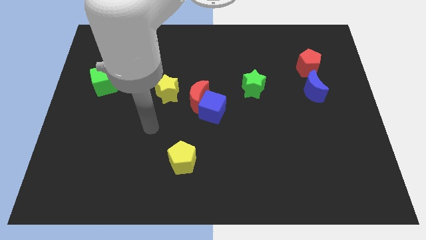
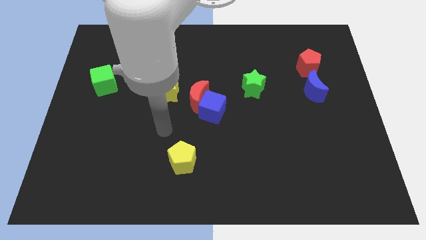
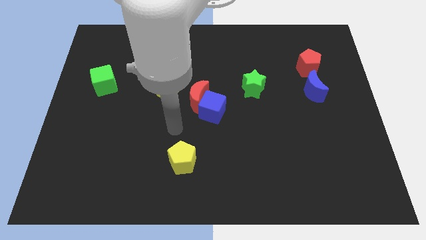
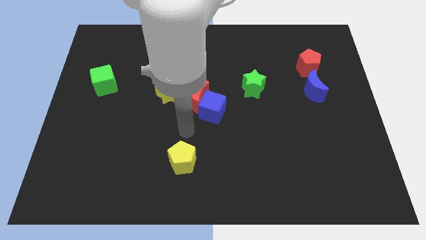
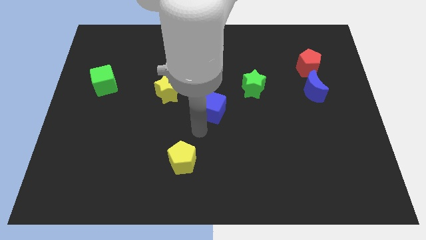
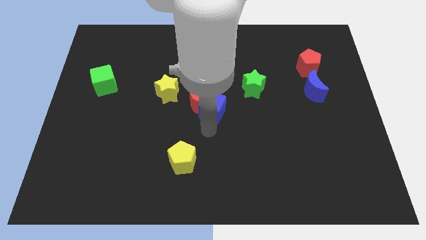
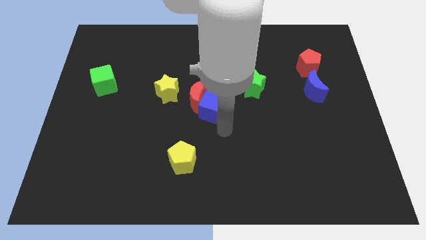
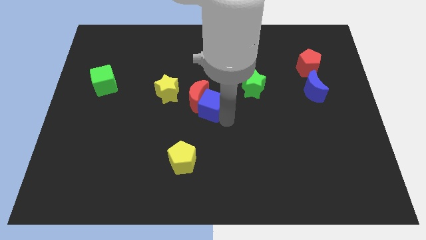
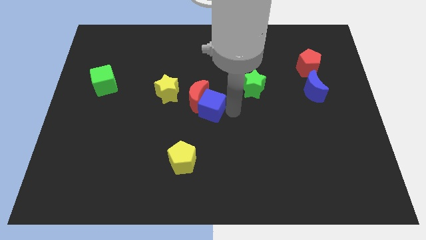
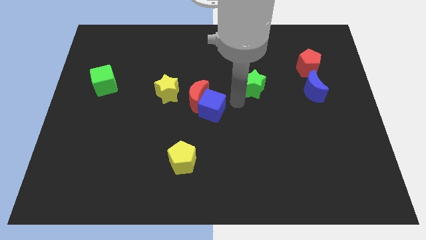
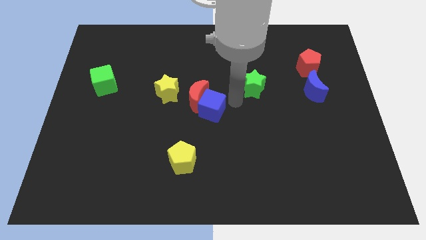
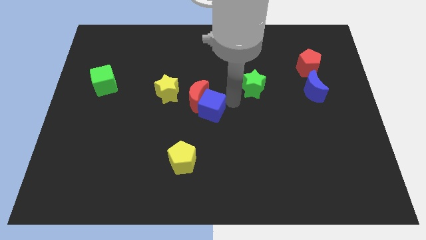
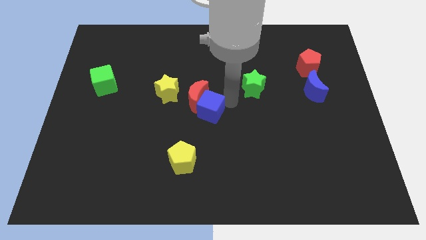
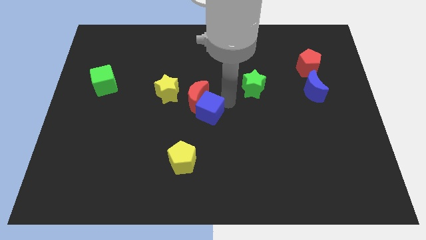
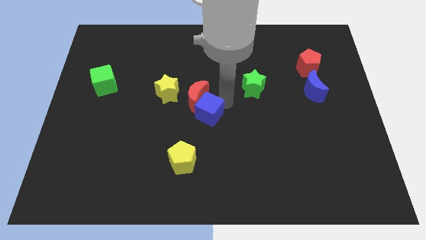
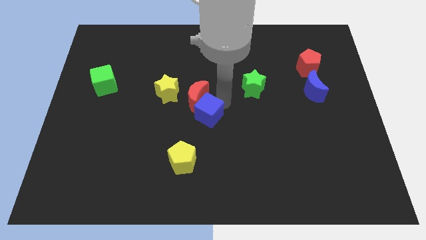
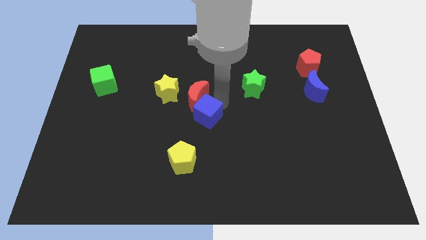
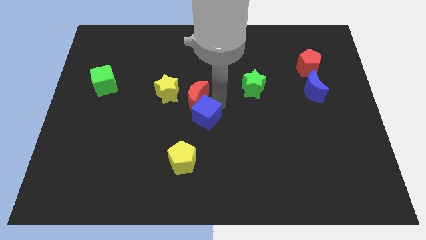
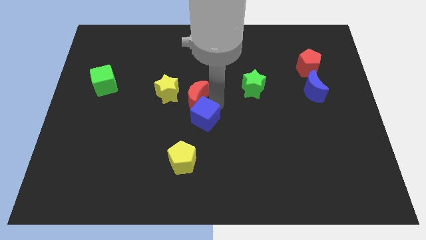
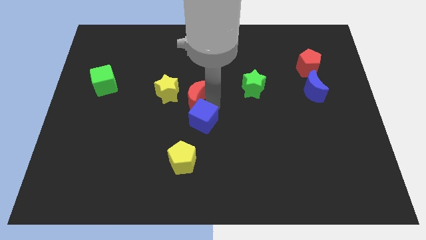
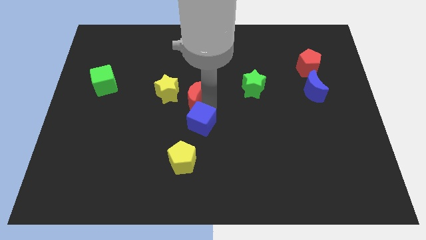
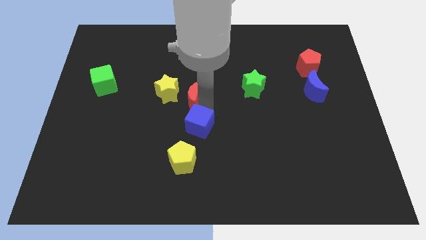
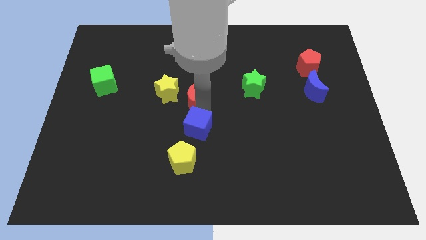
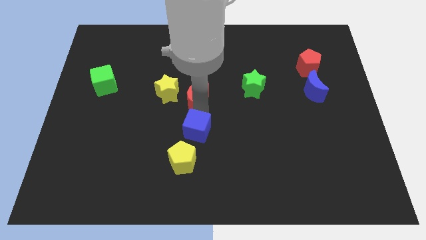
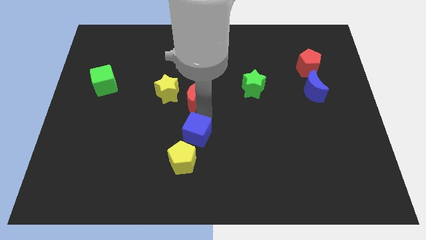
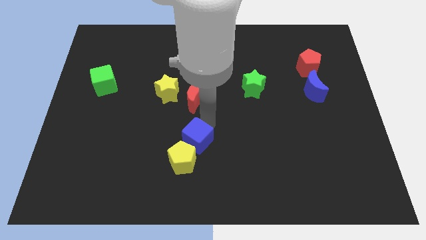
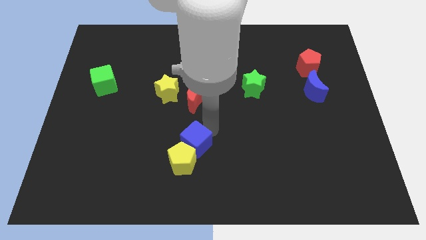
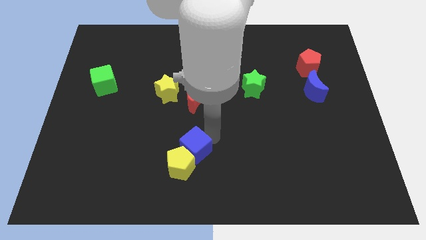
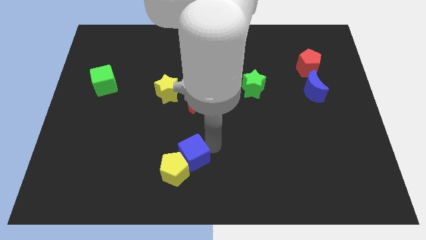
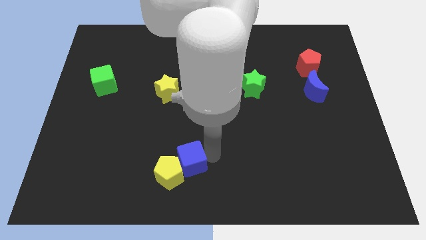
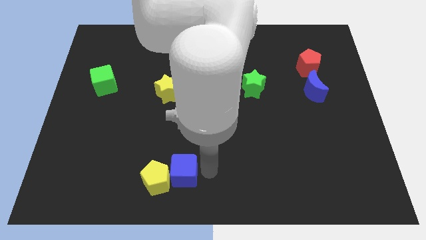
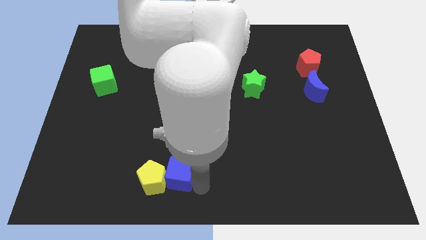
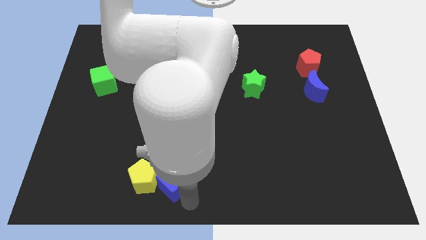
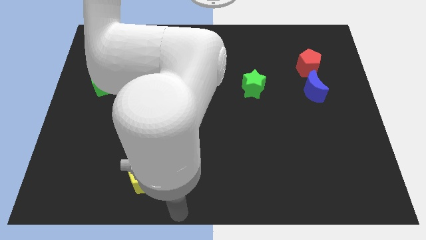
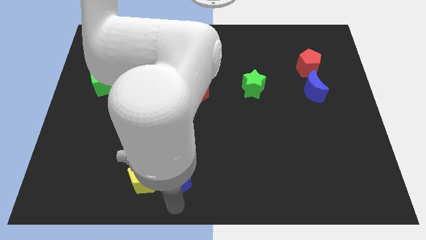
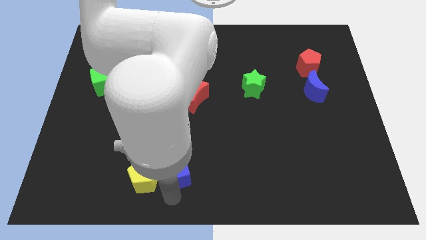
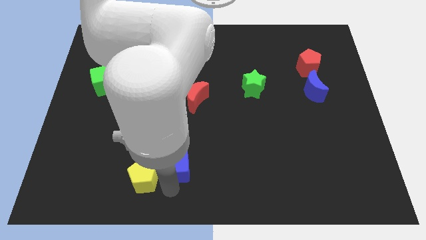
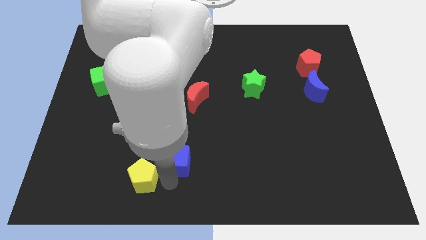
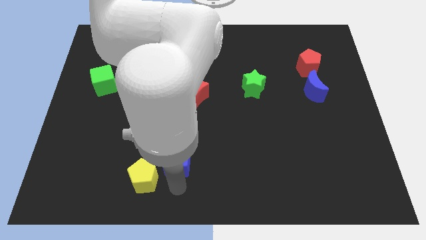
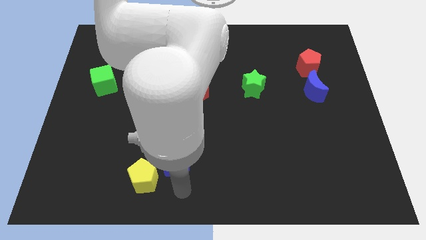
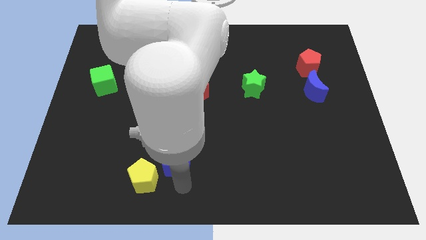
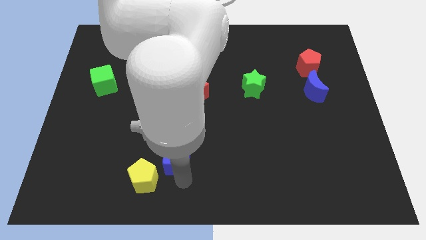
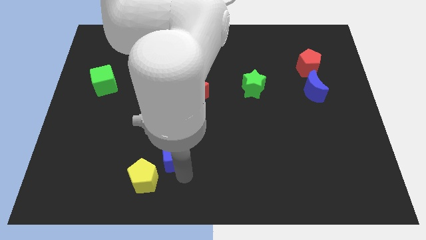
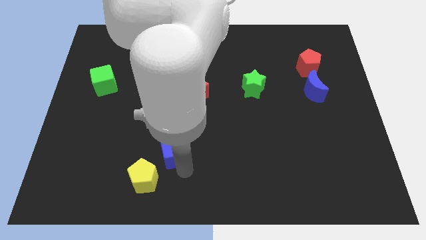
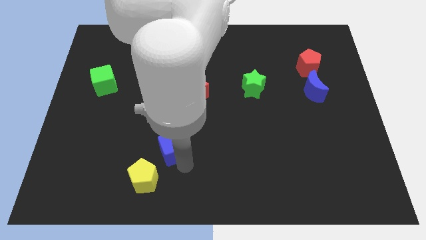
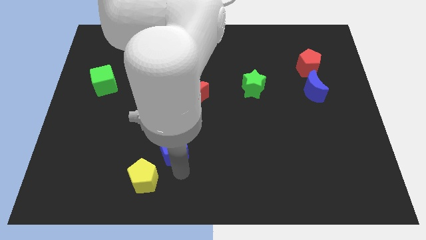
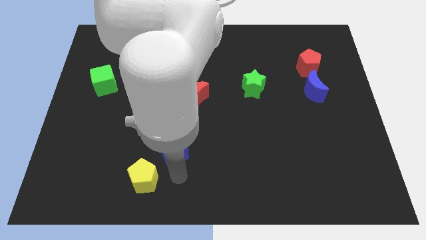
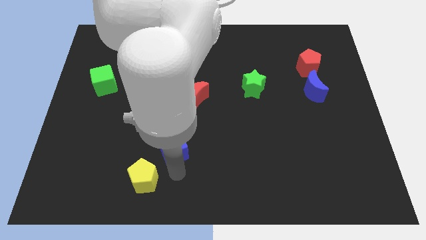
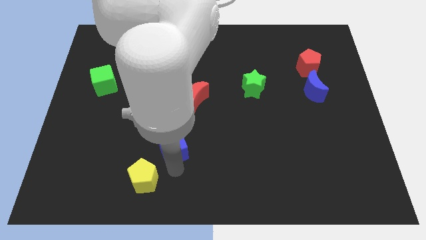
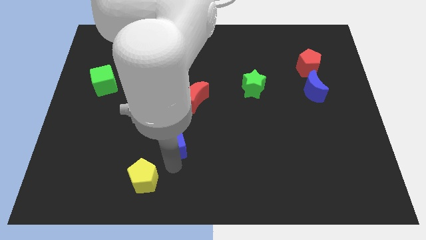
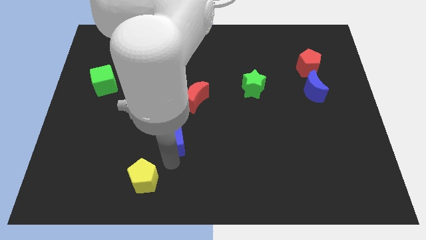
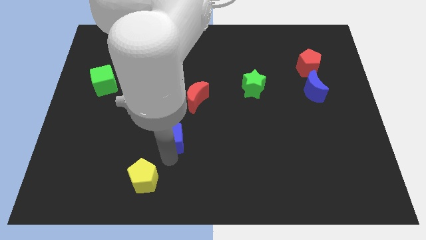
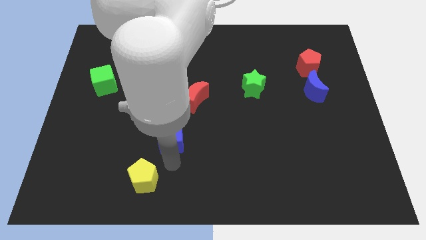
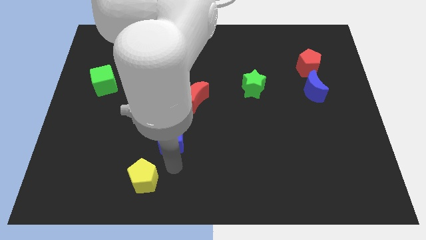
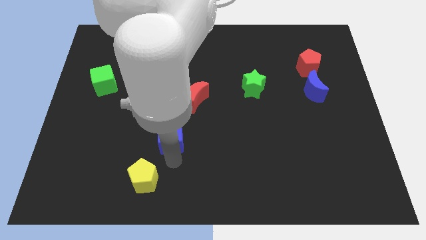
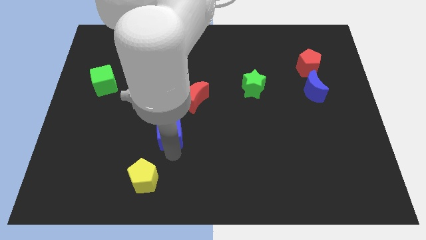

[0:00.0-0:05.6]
move the blue cube slightly to the left

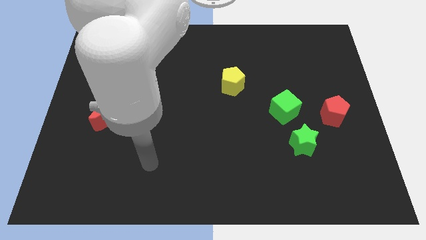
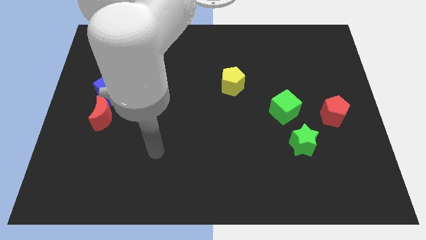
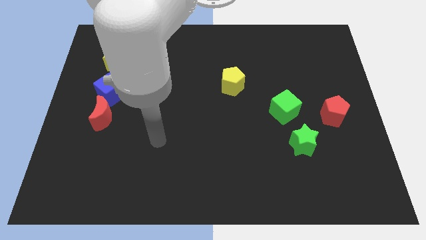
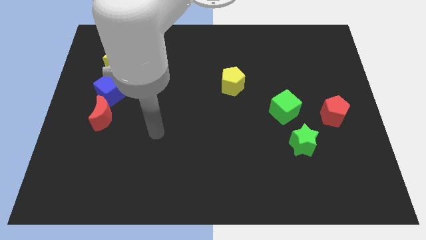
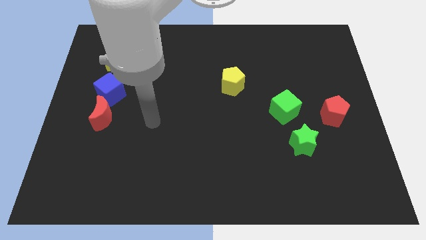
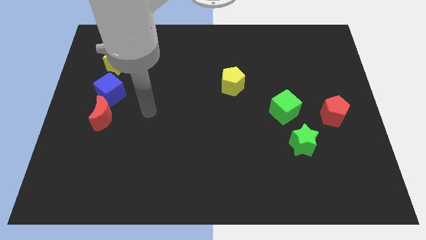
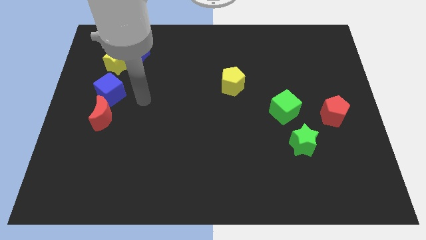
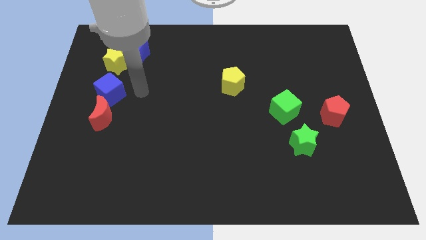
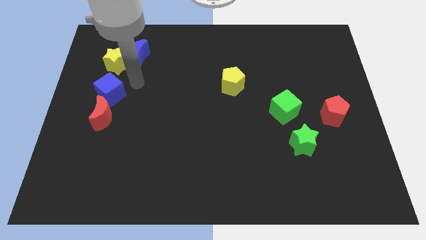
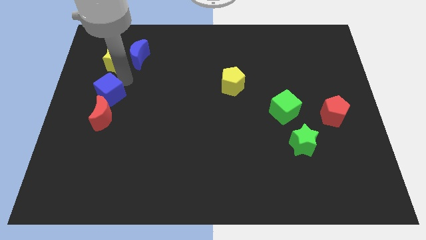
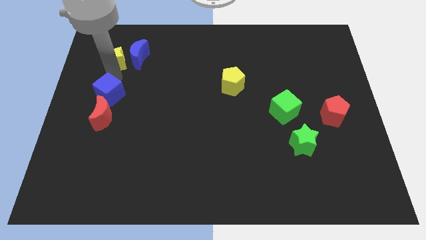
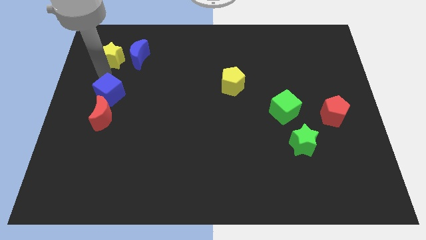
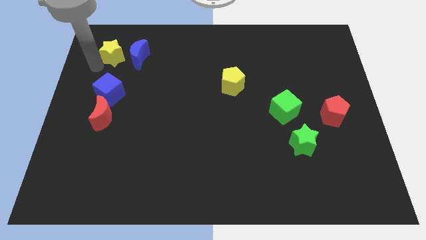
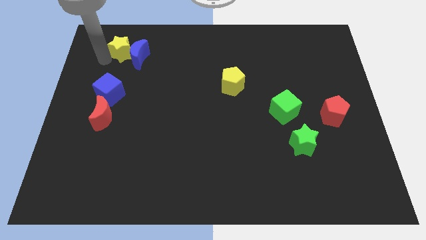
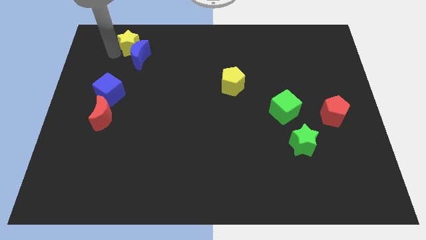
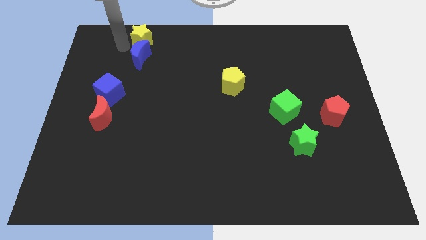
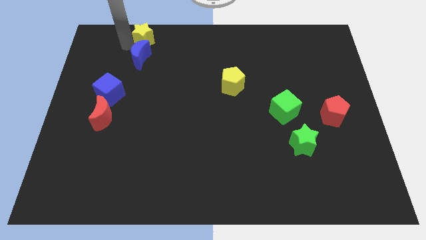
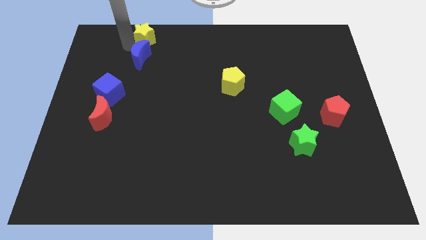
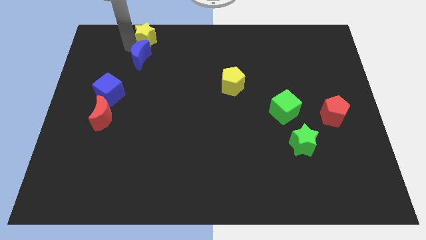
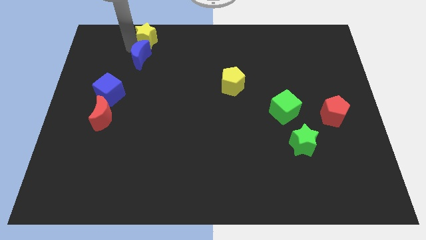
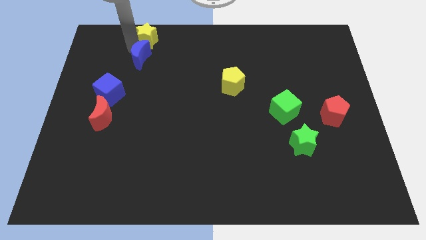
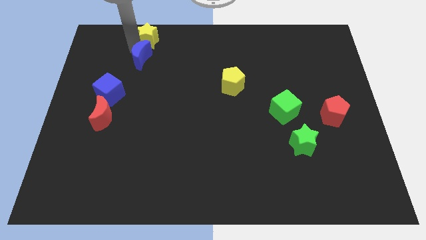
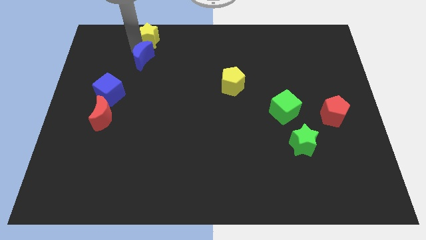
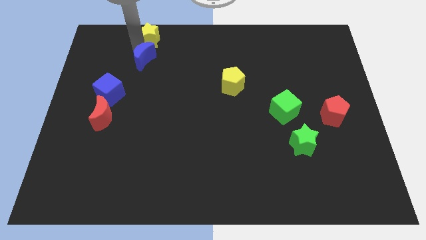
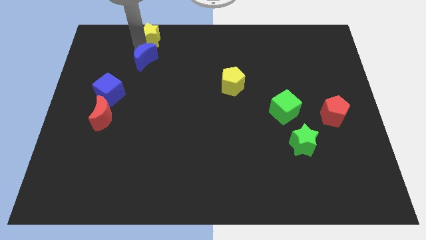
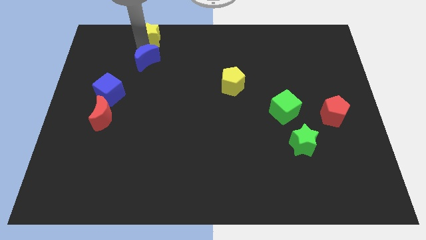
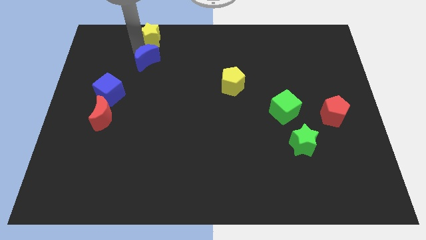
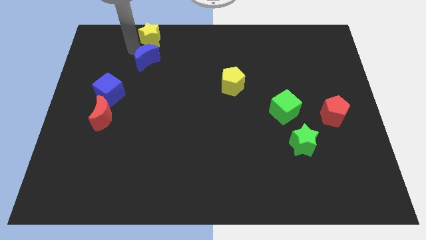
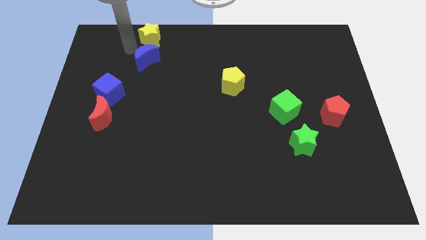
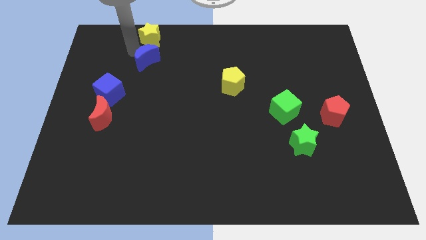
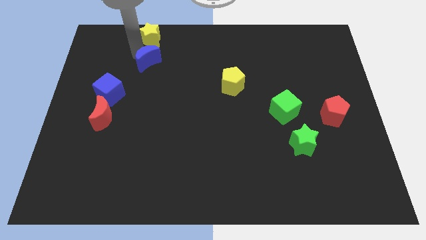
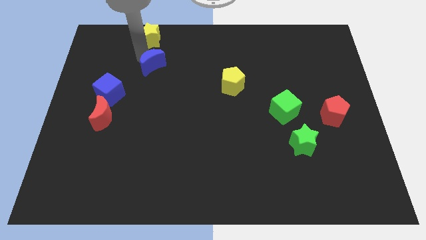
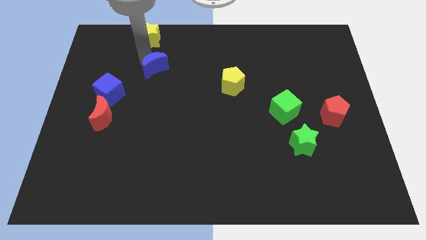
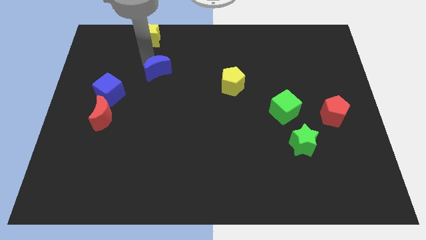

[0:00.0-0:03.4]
move the blue moon diagonally down and right a bit
